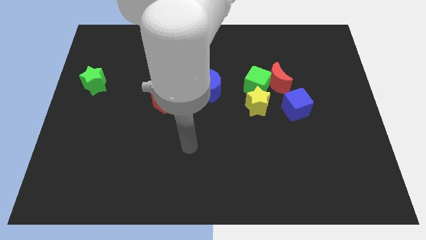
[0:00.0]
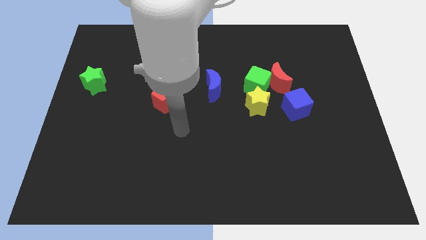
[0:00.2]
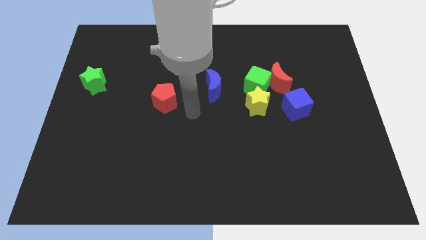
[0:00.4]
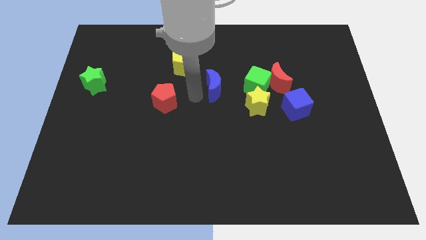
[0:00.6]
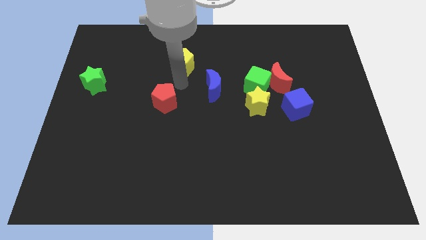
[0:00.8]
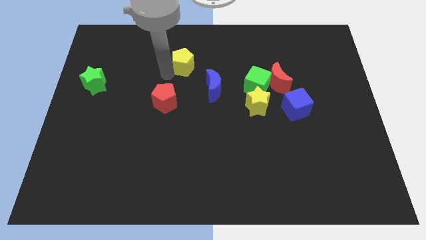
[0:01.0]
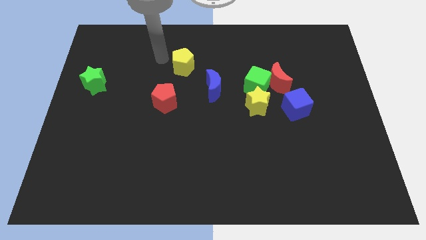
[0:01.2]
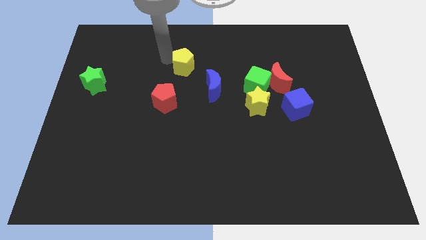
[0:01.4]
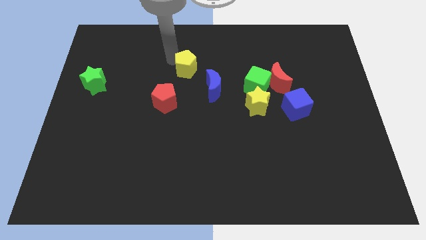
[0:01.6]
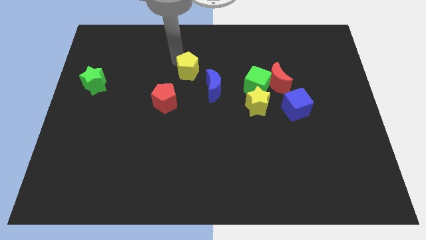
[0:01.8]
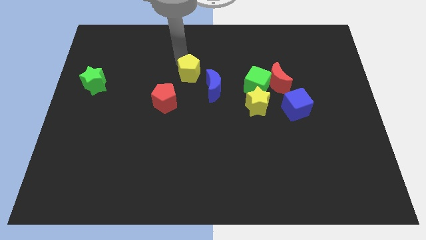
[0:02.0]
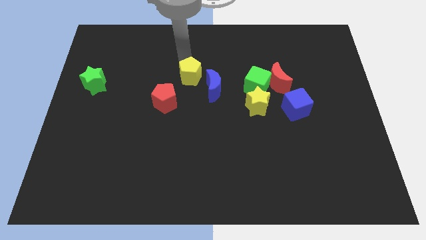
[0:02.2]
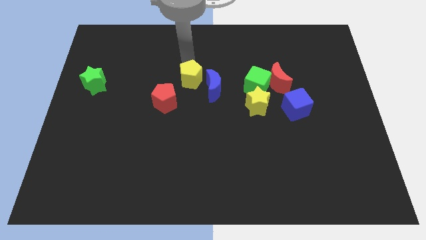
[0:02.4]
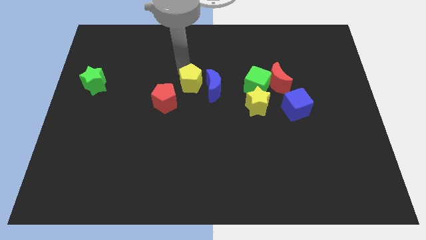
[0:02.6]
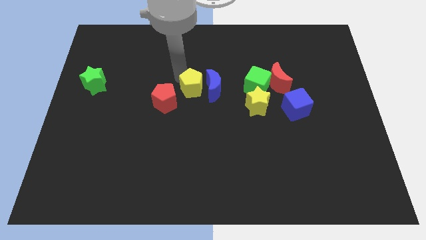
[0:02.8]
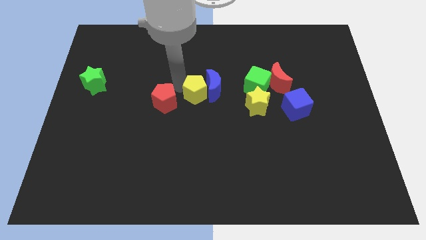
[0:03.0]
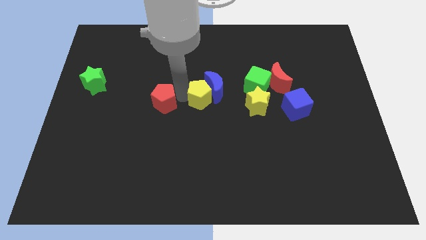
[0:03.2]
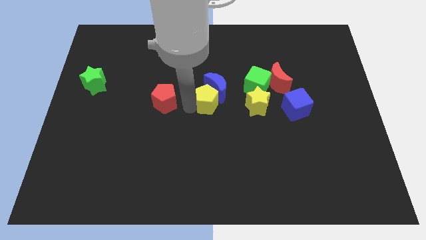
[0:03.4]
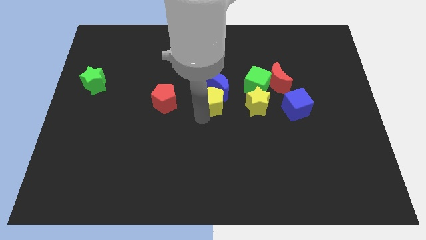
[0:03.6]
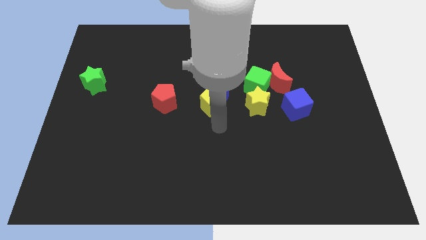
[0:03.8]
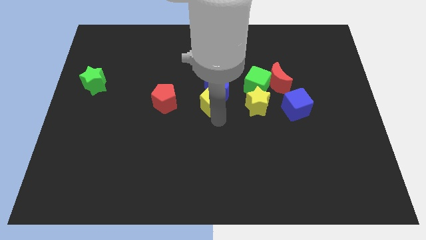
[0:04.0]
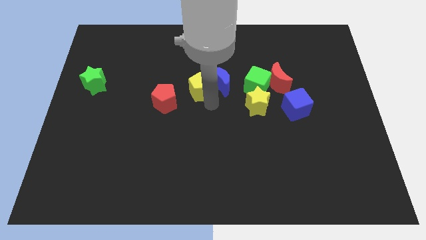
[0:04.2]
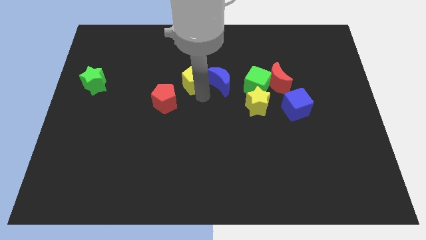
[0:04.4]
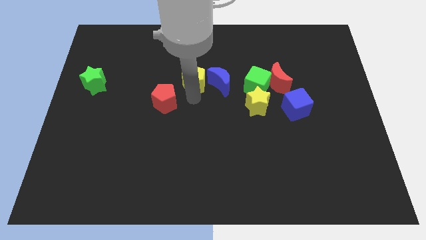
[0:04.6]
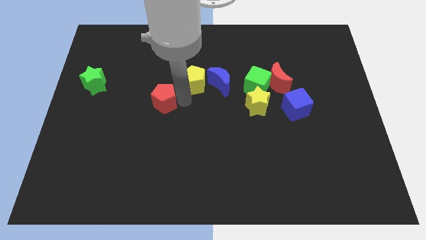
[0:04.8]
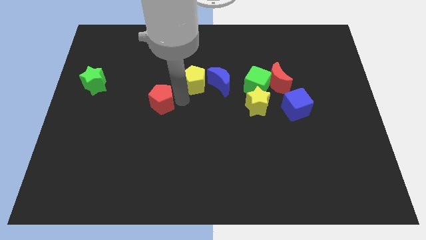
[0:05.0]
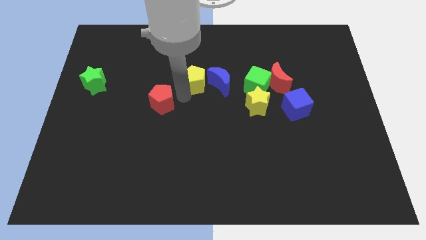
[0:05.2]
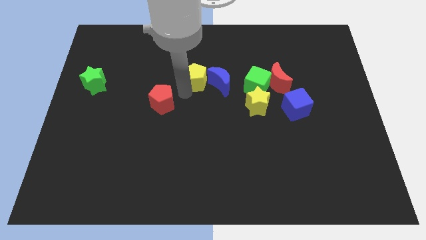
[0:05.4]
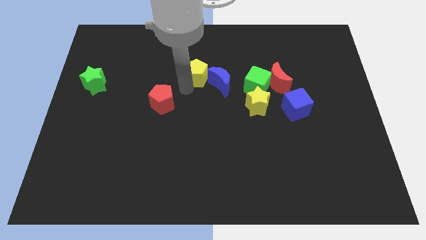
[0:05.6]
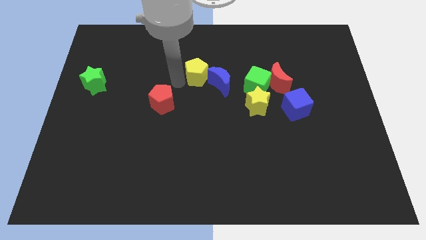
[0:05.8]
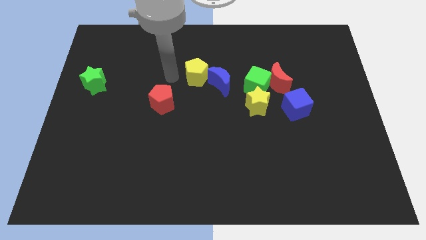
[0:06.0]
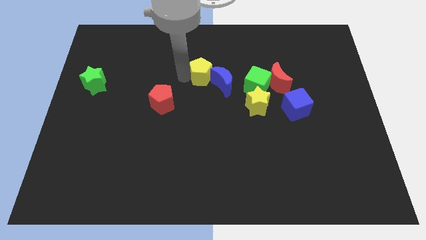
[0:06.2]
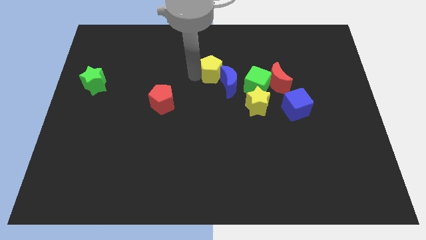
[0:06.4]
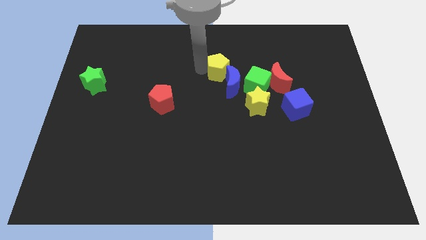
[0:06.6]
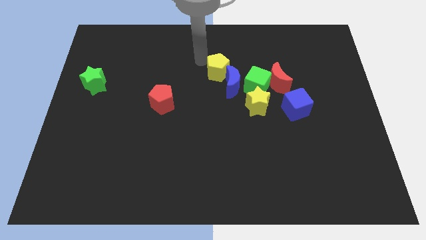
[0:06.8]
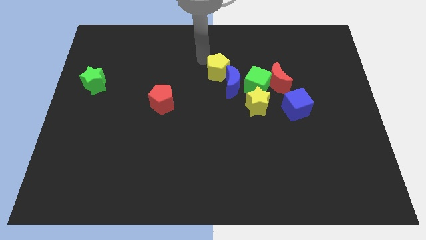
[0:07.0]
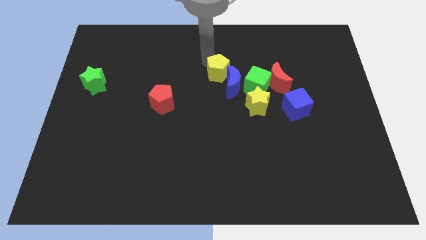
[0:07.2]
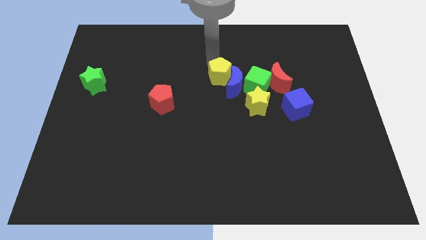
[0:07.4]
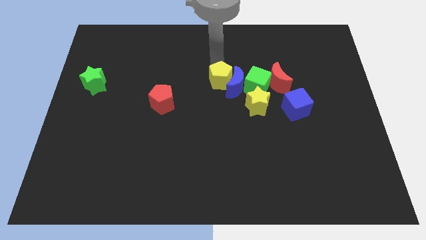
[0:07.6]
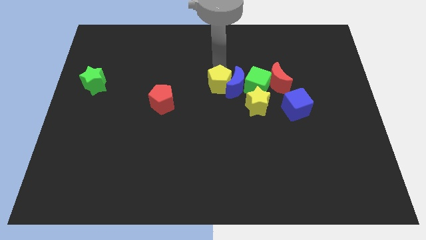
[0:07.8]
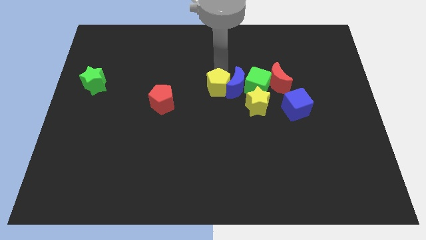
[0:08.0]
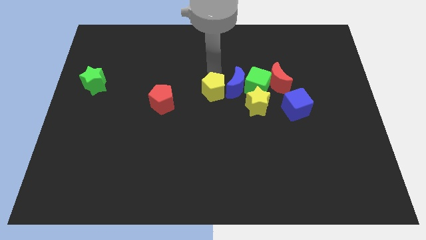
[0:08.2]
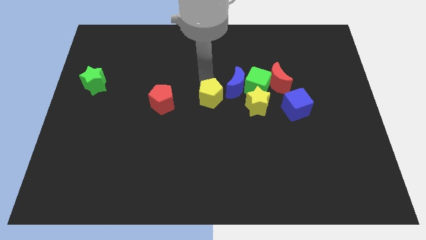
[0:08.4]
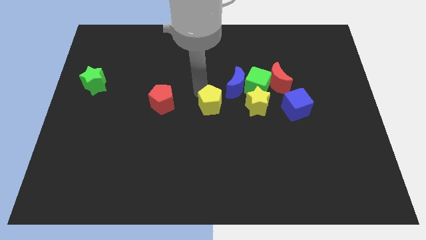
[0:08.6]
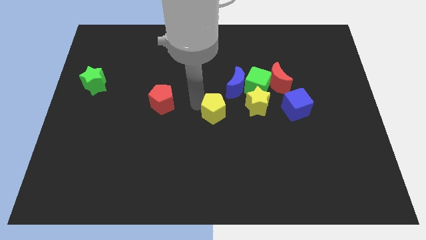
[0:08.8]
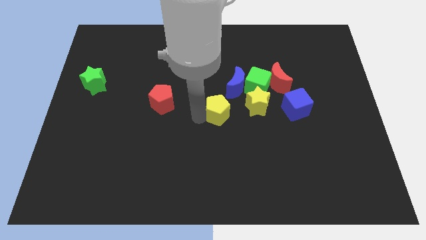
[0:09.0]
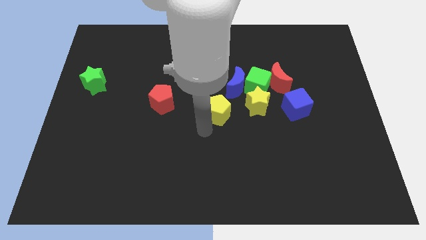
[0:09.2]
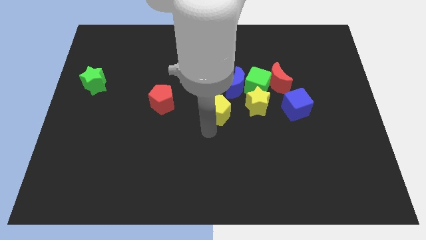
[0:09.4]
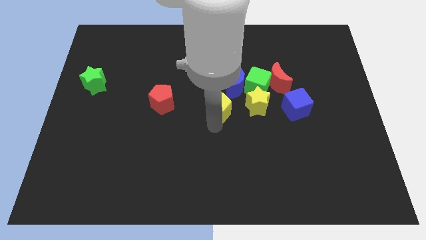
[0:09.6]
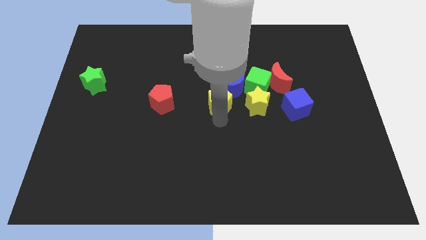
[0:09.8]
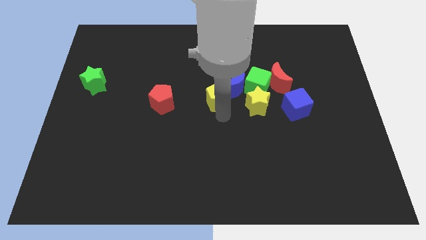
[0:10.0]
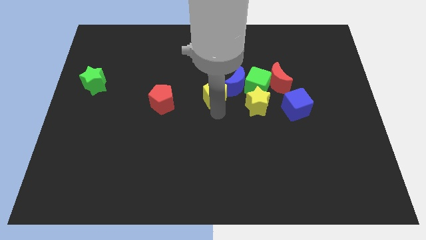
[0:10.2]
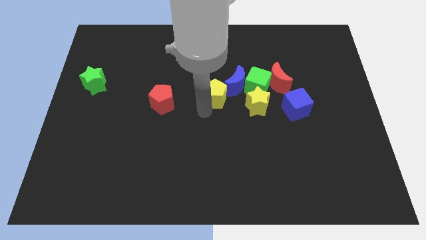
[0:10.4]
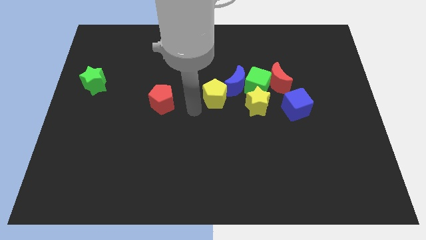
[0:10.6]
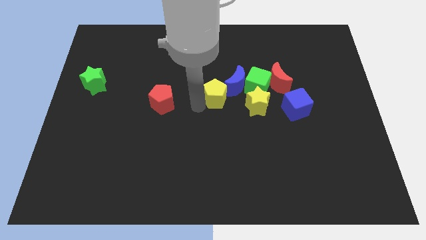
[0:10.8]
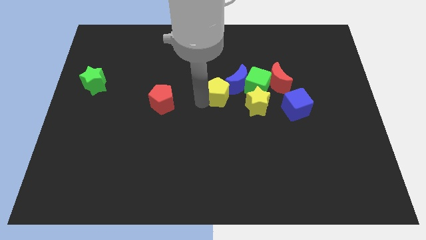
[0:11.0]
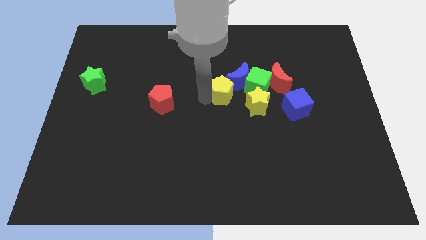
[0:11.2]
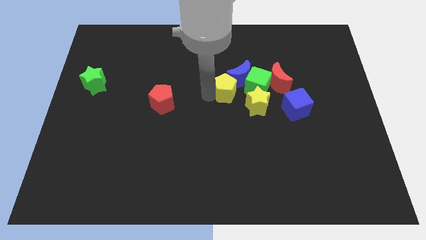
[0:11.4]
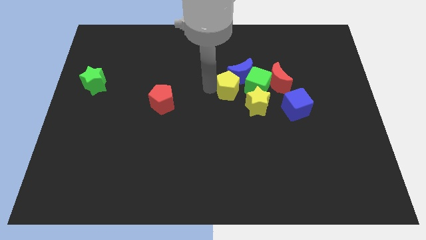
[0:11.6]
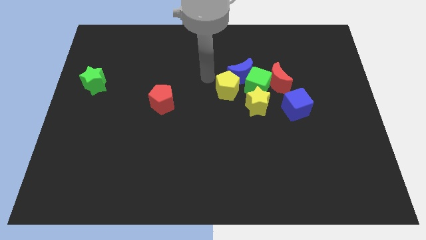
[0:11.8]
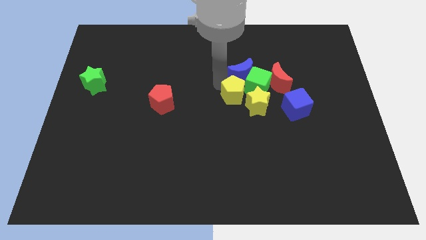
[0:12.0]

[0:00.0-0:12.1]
push the yellow pentagon next to the yellow star

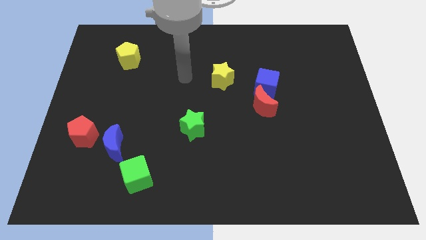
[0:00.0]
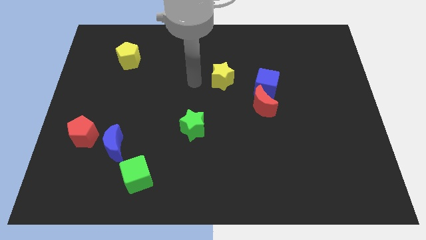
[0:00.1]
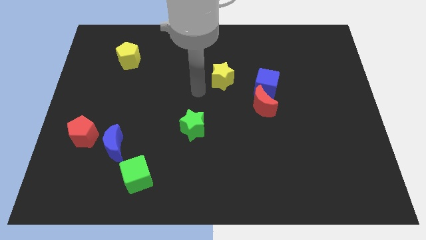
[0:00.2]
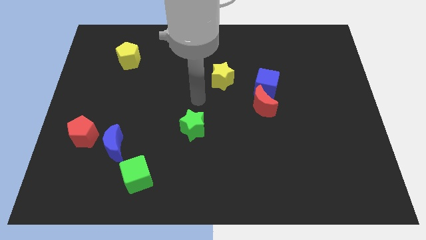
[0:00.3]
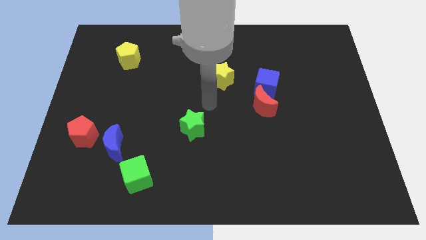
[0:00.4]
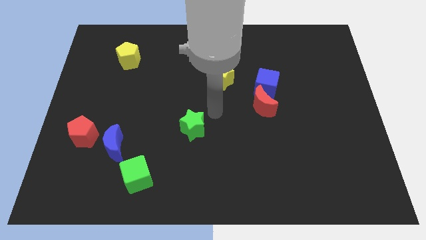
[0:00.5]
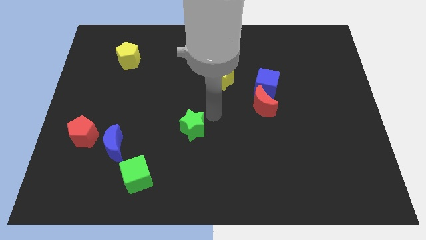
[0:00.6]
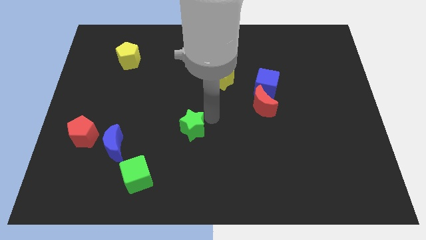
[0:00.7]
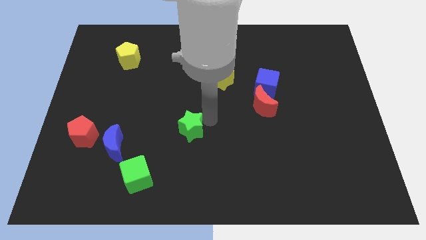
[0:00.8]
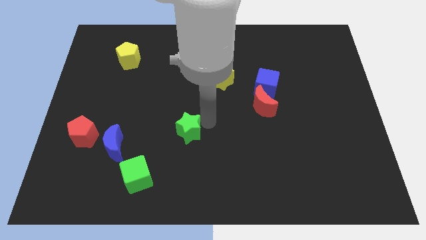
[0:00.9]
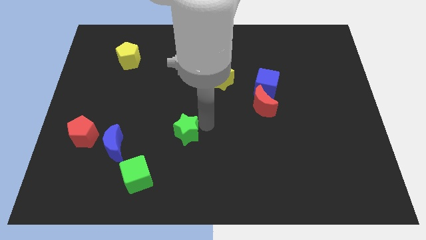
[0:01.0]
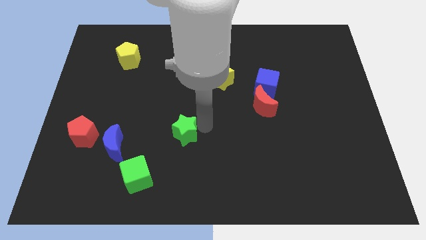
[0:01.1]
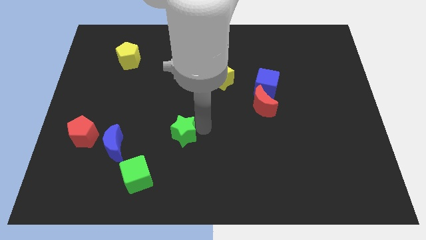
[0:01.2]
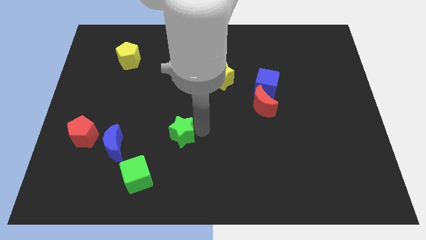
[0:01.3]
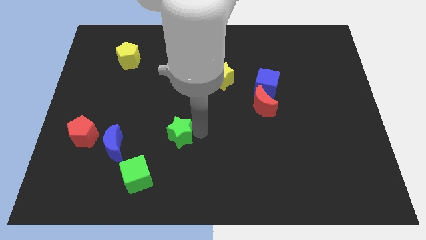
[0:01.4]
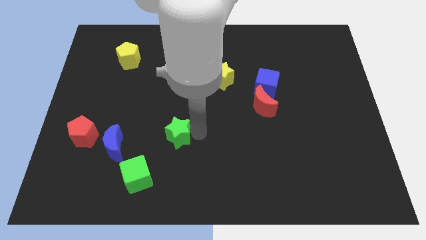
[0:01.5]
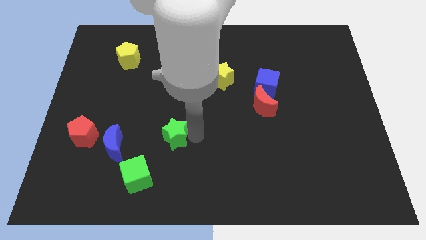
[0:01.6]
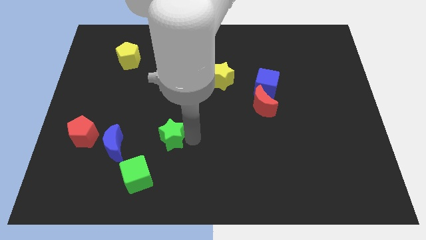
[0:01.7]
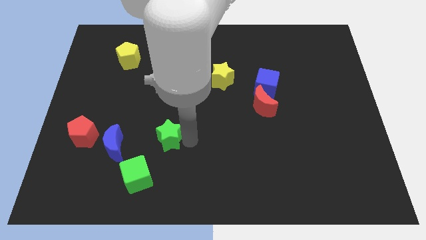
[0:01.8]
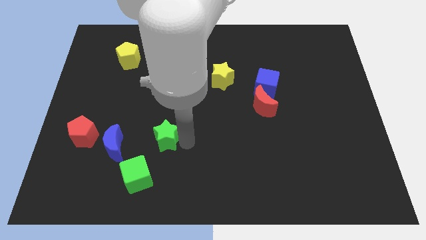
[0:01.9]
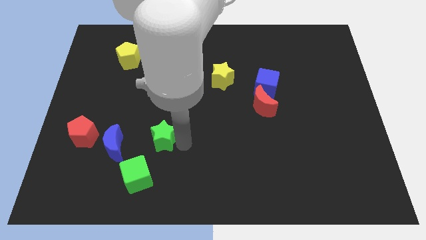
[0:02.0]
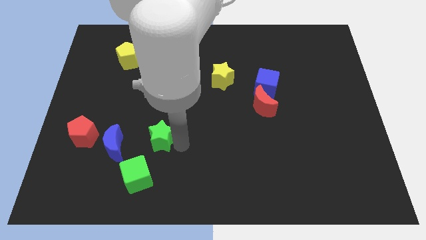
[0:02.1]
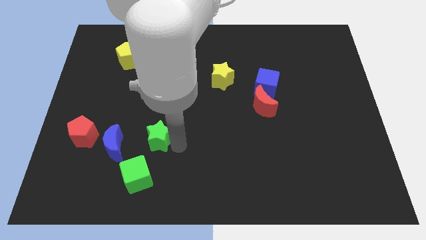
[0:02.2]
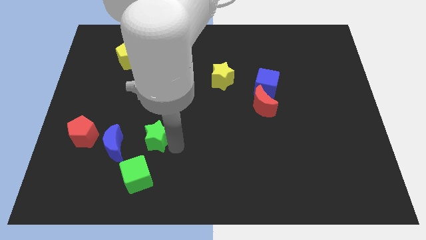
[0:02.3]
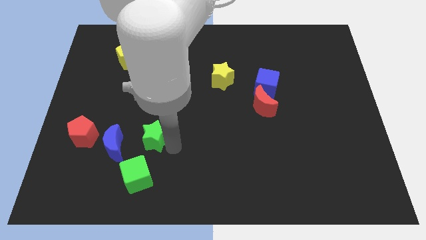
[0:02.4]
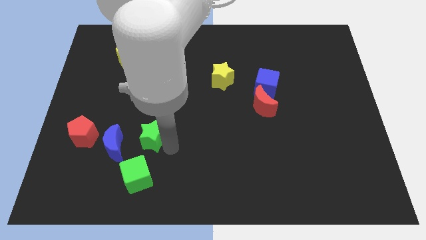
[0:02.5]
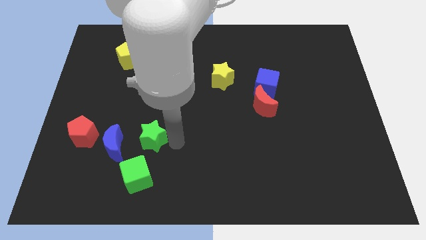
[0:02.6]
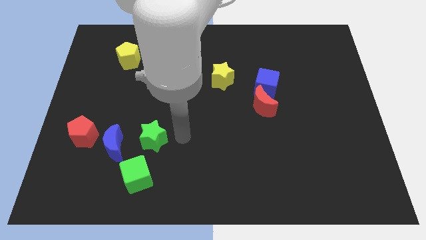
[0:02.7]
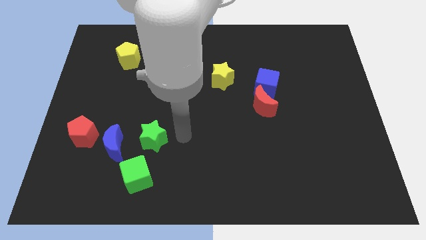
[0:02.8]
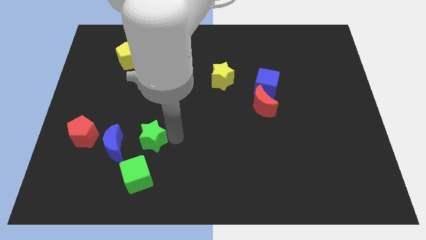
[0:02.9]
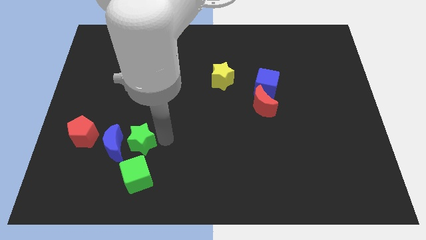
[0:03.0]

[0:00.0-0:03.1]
move the green star next to the blue moon
